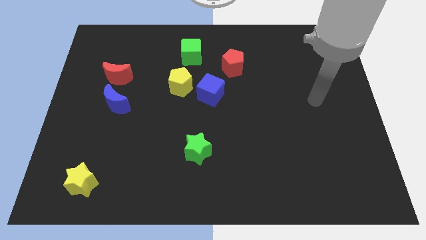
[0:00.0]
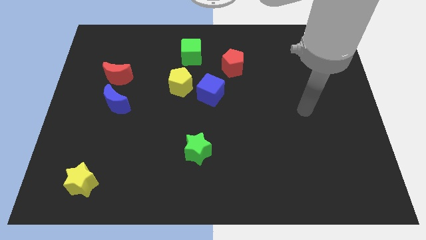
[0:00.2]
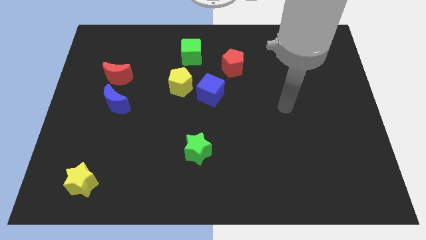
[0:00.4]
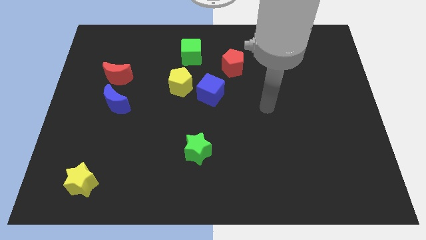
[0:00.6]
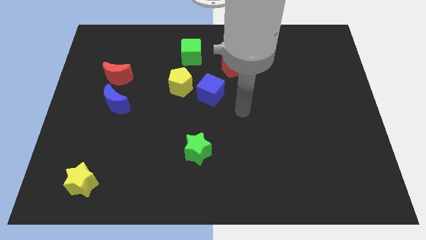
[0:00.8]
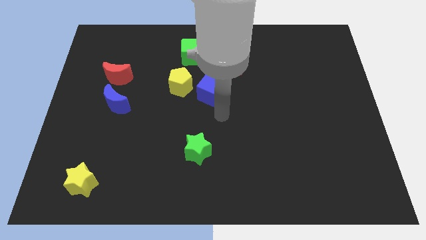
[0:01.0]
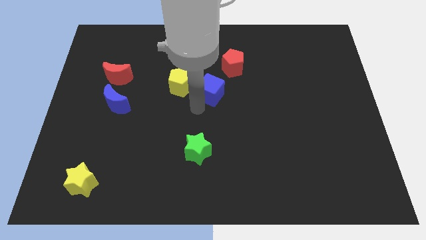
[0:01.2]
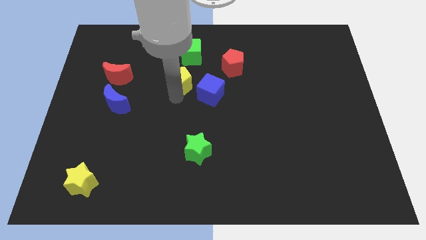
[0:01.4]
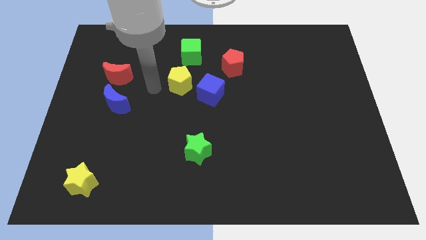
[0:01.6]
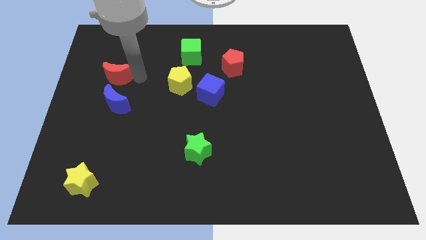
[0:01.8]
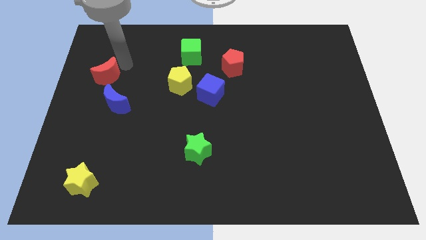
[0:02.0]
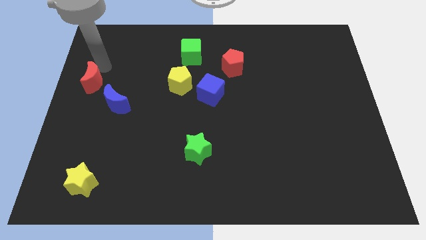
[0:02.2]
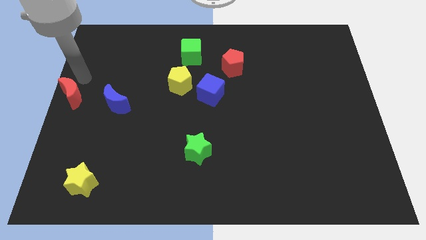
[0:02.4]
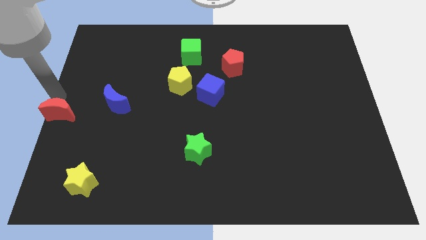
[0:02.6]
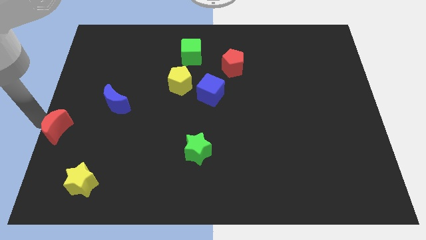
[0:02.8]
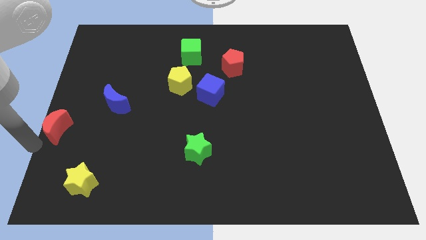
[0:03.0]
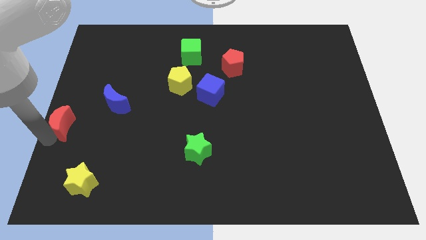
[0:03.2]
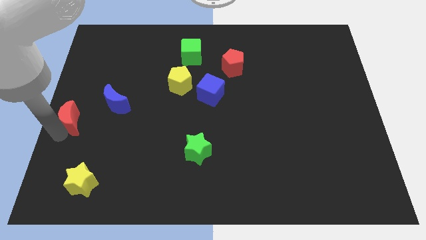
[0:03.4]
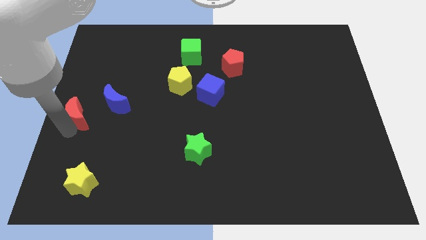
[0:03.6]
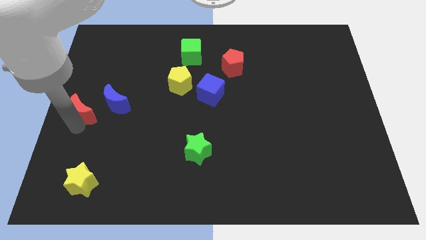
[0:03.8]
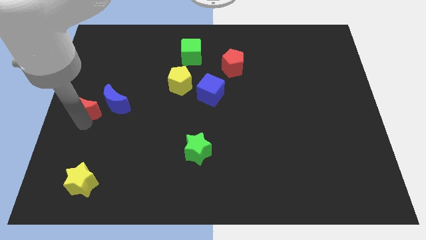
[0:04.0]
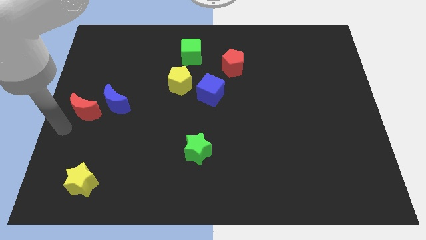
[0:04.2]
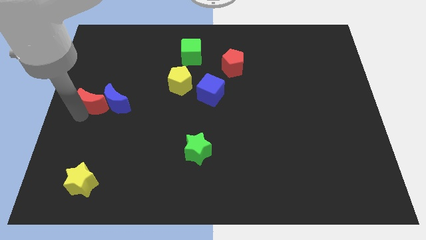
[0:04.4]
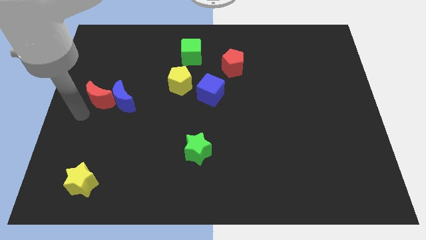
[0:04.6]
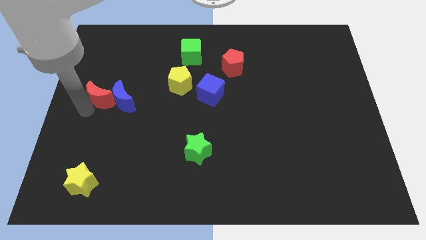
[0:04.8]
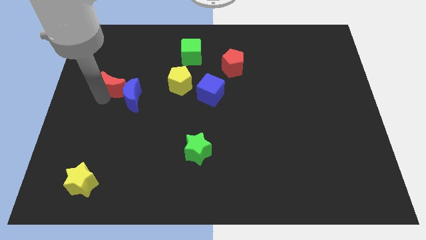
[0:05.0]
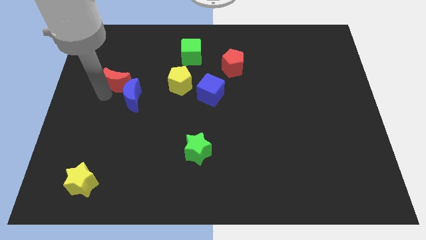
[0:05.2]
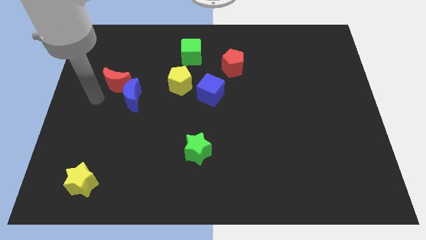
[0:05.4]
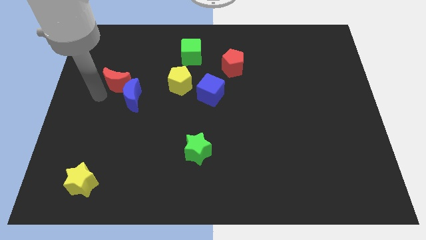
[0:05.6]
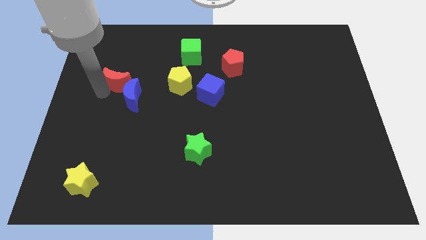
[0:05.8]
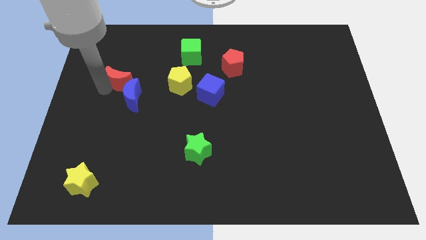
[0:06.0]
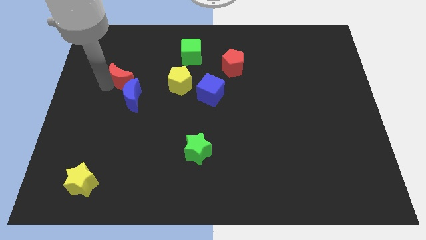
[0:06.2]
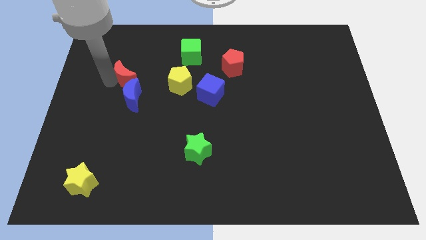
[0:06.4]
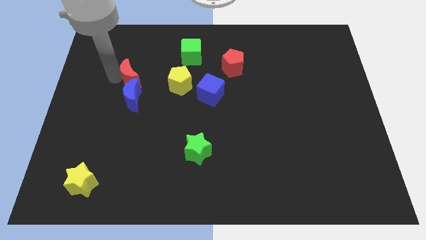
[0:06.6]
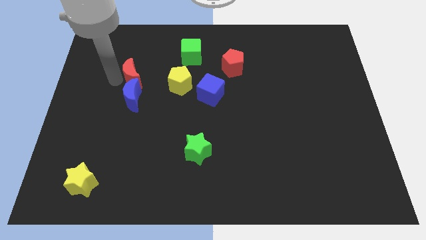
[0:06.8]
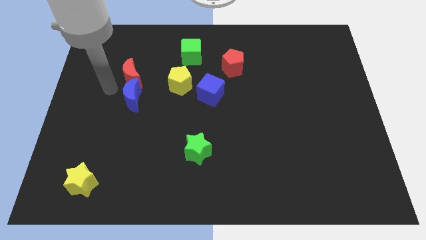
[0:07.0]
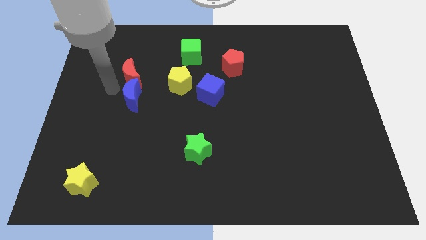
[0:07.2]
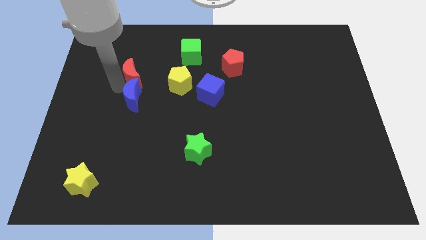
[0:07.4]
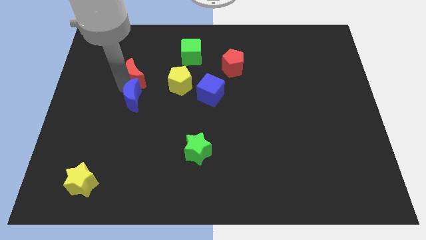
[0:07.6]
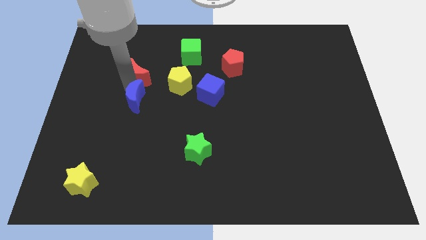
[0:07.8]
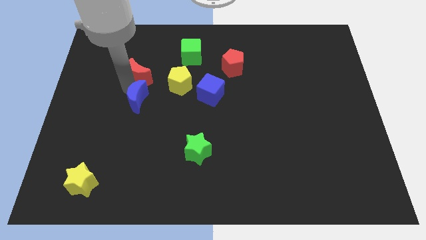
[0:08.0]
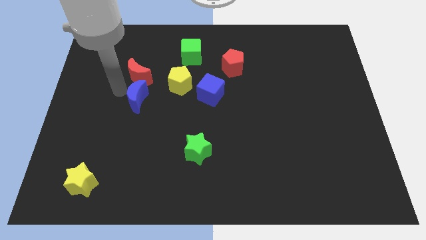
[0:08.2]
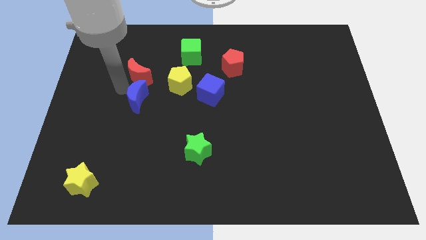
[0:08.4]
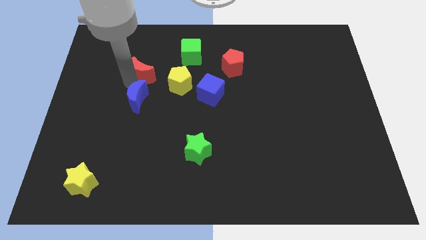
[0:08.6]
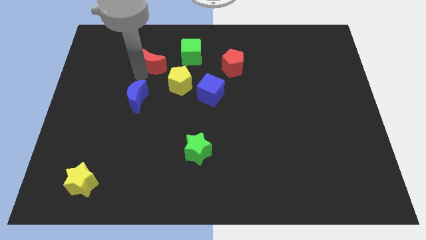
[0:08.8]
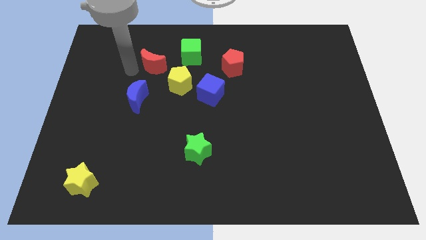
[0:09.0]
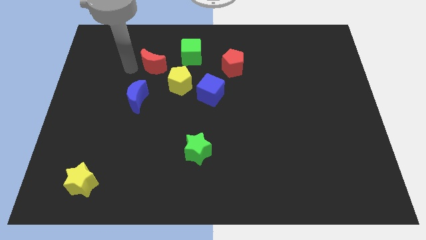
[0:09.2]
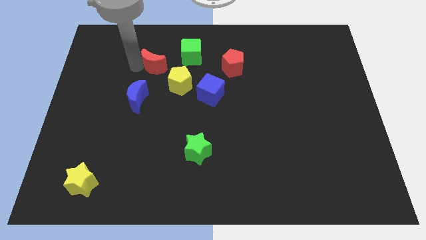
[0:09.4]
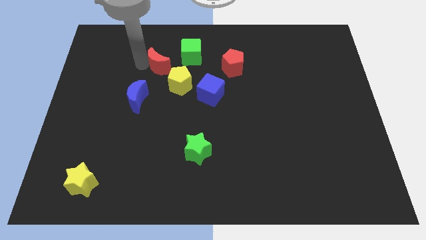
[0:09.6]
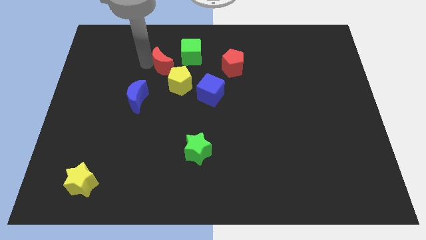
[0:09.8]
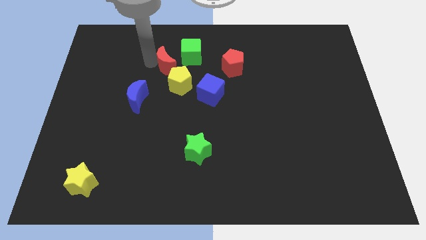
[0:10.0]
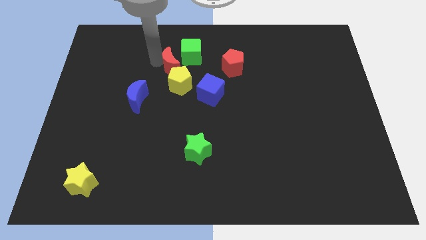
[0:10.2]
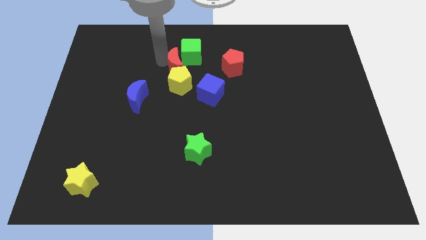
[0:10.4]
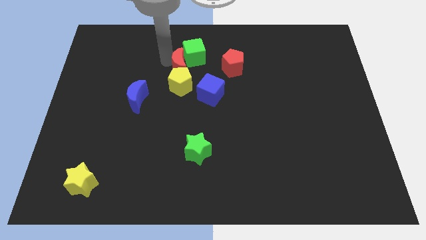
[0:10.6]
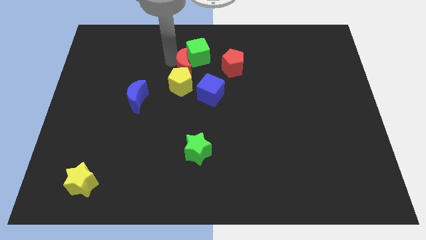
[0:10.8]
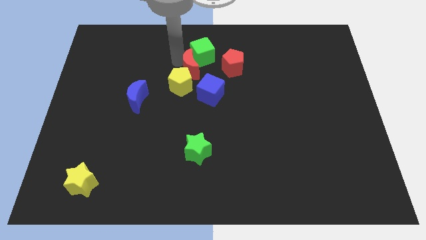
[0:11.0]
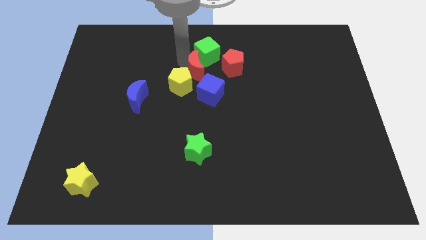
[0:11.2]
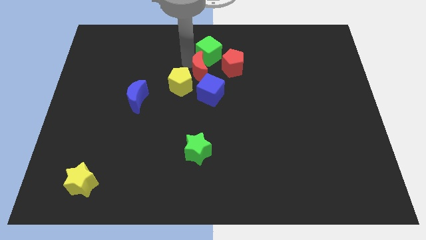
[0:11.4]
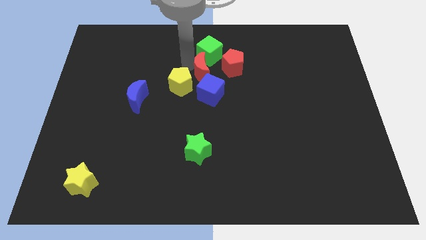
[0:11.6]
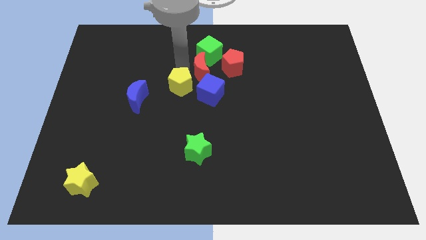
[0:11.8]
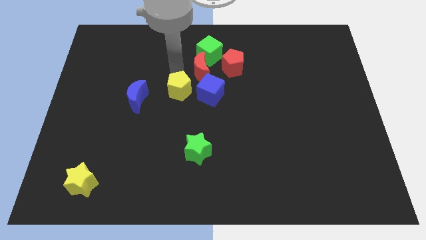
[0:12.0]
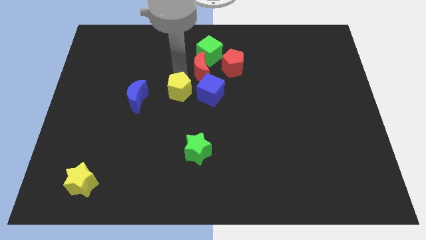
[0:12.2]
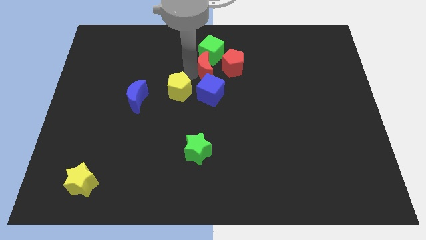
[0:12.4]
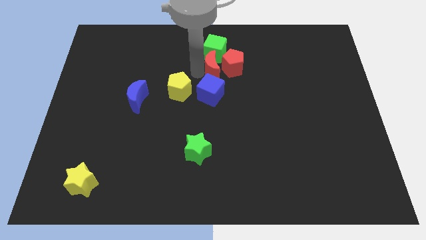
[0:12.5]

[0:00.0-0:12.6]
slide the red moon towards the red pentagon

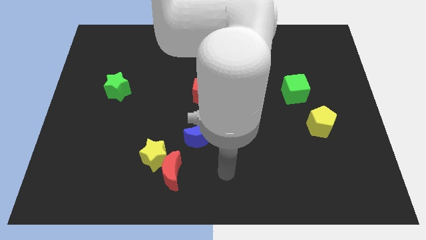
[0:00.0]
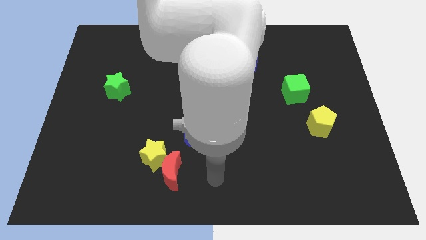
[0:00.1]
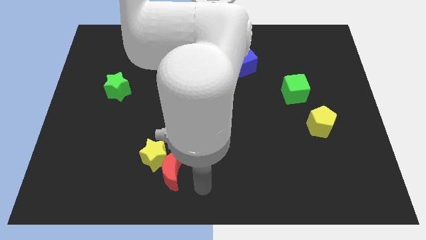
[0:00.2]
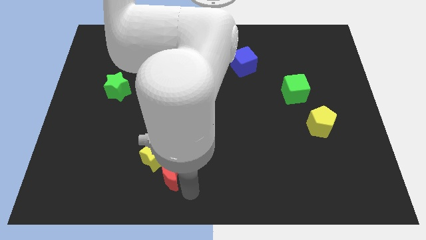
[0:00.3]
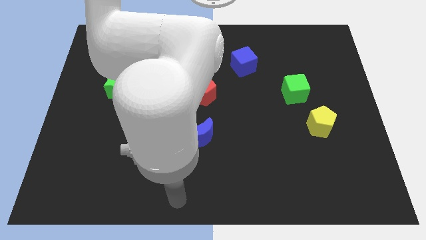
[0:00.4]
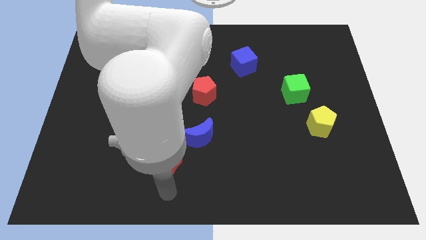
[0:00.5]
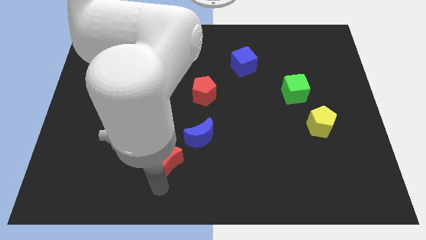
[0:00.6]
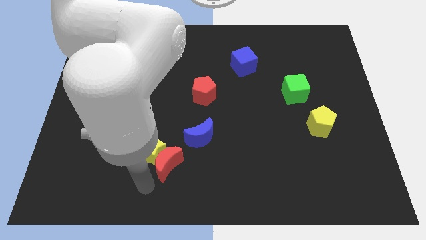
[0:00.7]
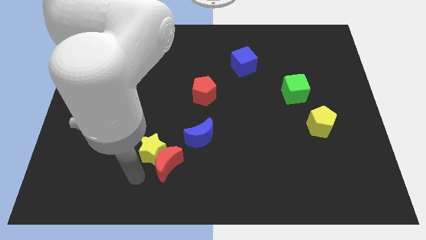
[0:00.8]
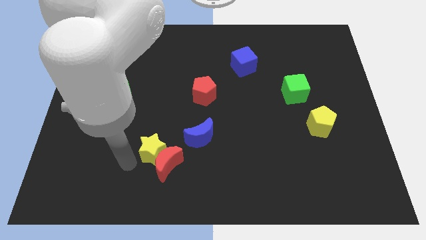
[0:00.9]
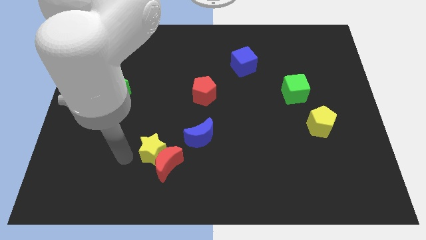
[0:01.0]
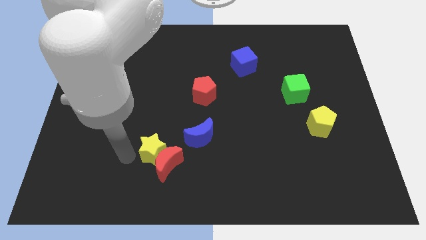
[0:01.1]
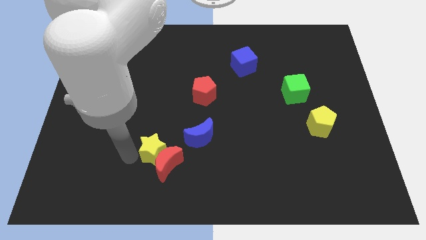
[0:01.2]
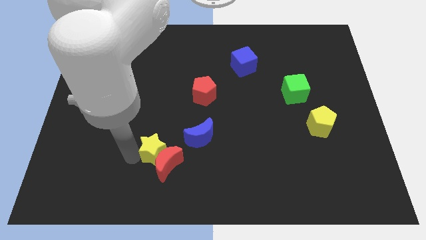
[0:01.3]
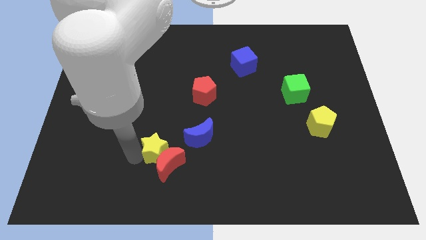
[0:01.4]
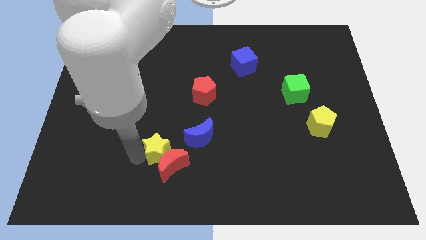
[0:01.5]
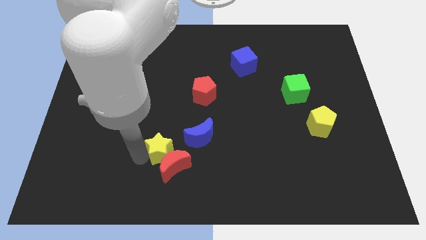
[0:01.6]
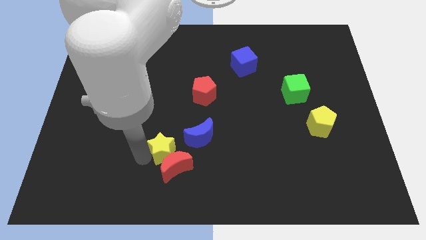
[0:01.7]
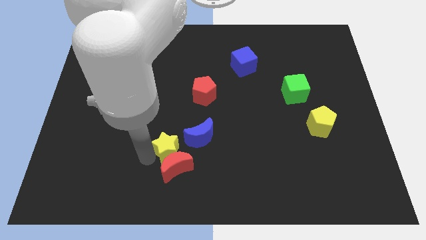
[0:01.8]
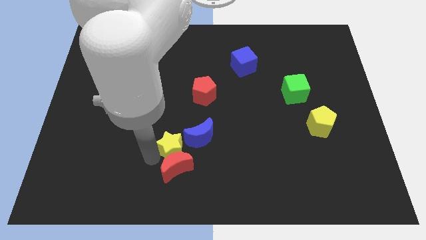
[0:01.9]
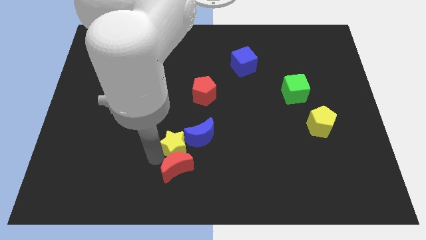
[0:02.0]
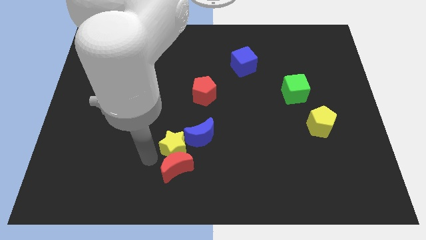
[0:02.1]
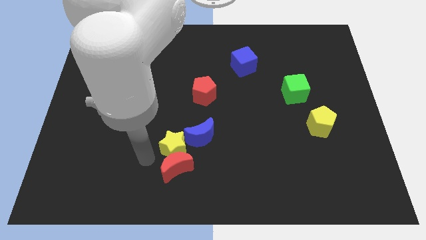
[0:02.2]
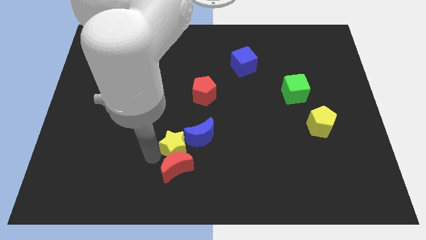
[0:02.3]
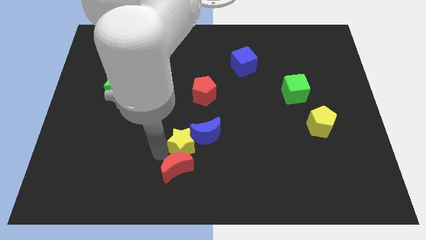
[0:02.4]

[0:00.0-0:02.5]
put the yellow star close to the blue moon
